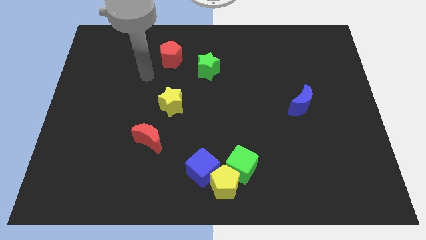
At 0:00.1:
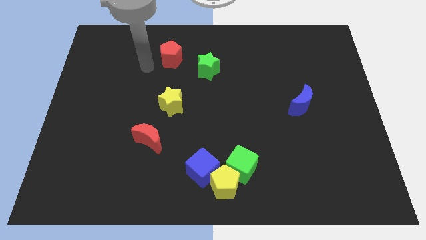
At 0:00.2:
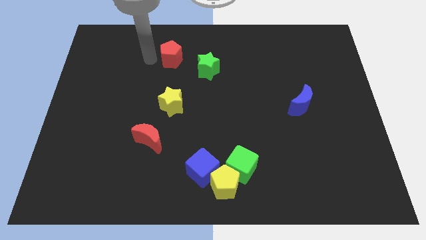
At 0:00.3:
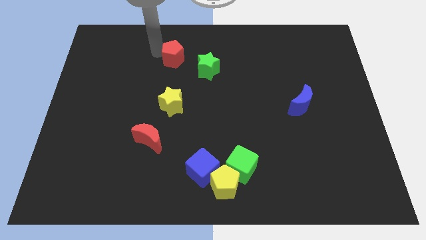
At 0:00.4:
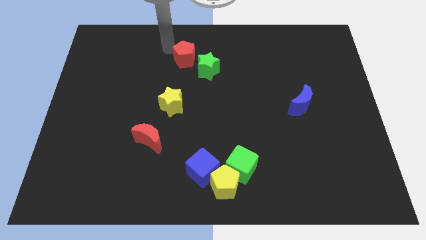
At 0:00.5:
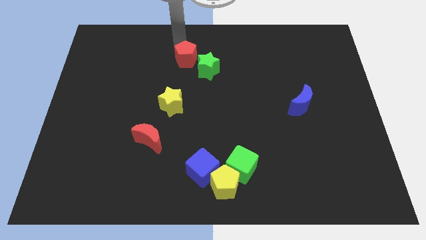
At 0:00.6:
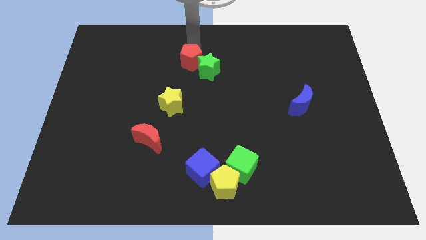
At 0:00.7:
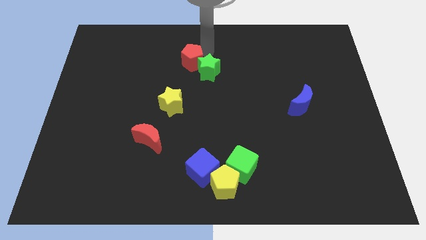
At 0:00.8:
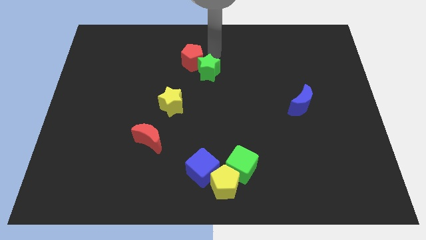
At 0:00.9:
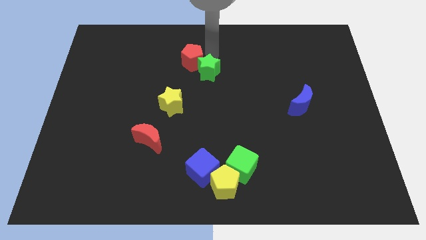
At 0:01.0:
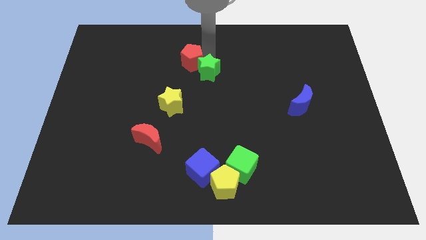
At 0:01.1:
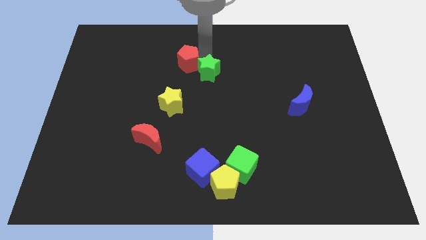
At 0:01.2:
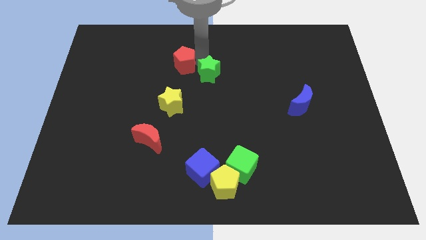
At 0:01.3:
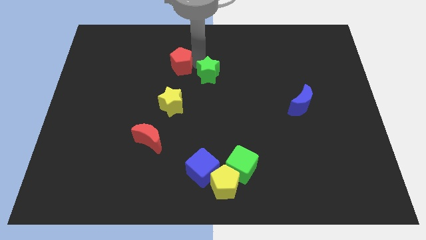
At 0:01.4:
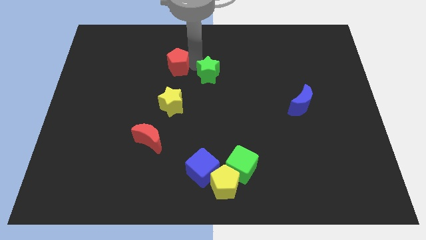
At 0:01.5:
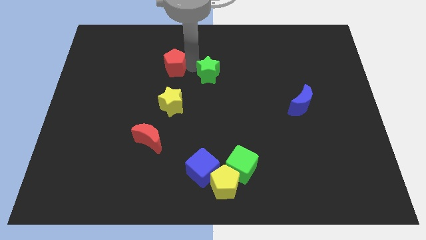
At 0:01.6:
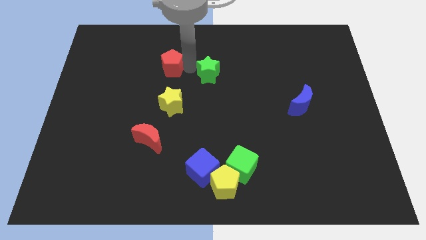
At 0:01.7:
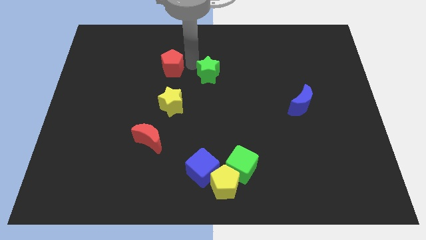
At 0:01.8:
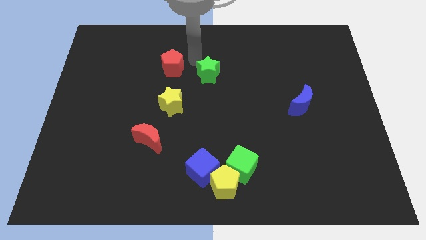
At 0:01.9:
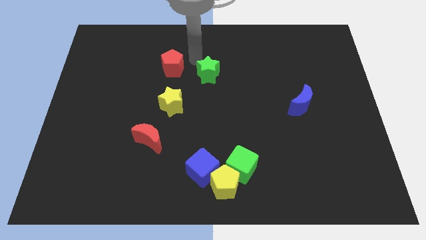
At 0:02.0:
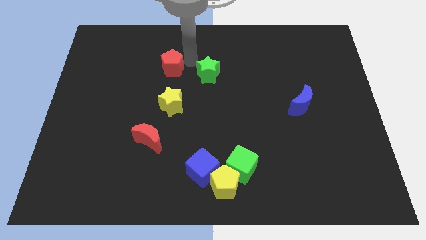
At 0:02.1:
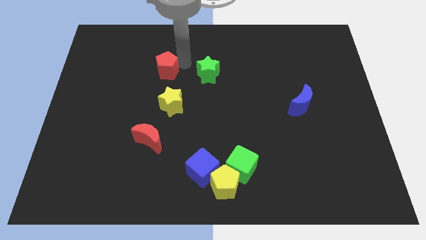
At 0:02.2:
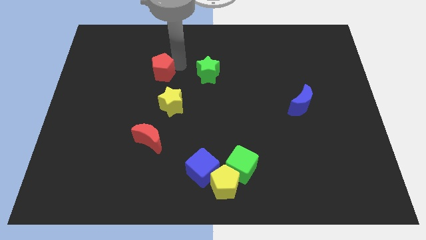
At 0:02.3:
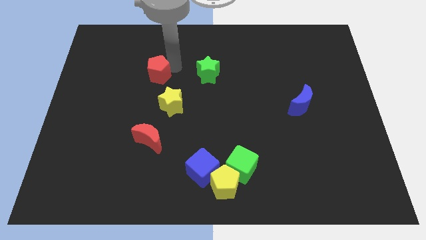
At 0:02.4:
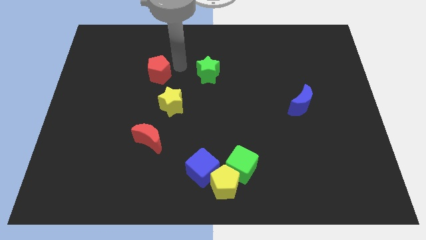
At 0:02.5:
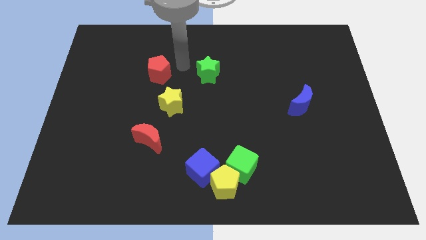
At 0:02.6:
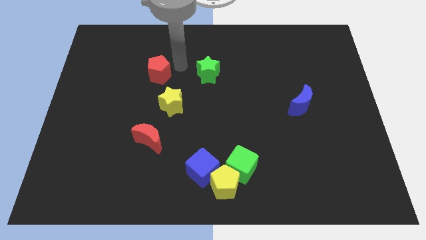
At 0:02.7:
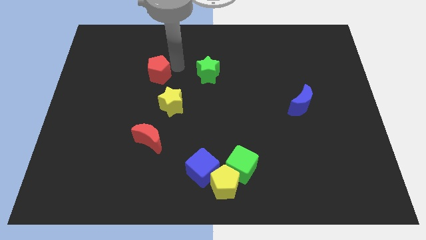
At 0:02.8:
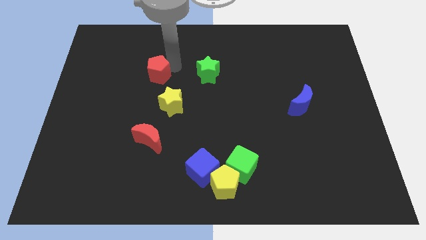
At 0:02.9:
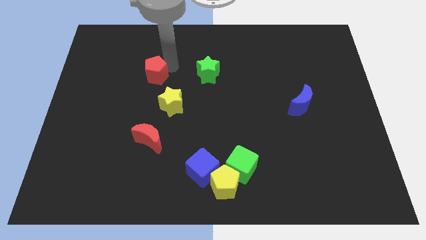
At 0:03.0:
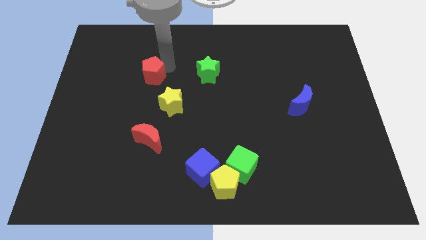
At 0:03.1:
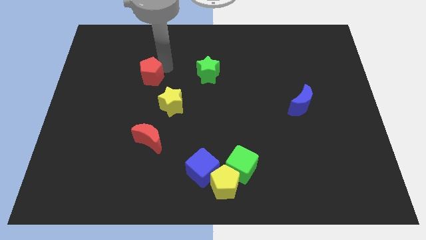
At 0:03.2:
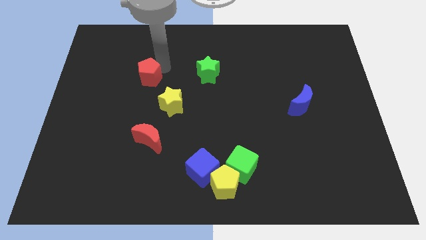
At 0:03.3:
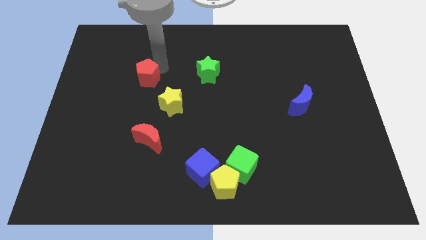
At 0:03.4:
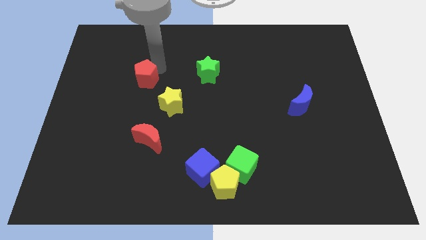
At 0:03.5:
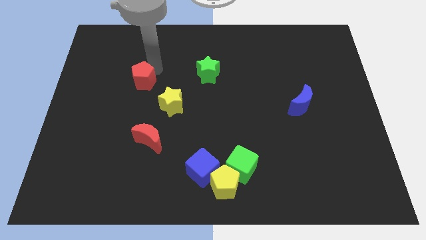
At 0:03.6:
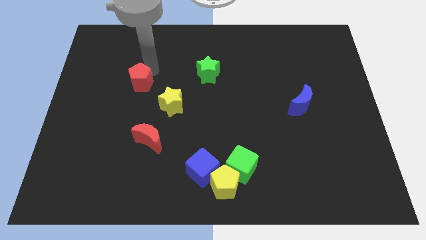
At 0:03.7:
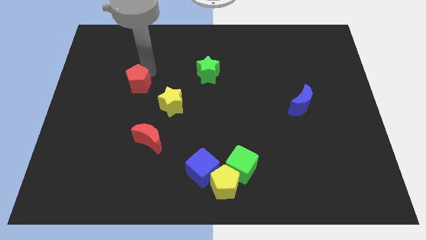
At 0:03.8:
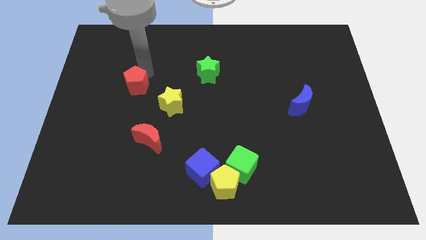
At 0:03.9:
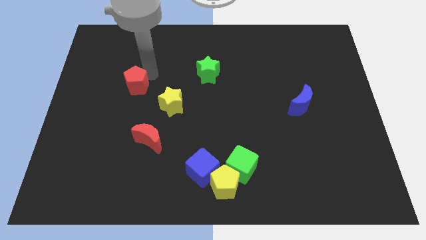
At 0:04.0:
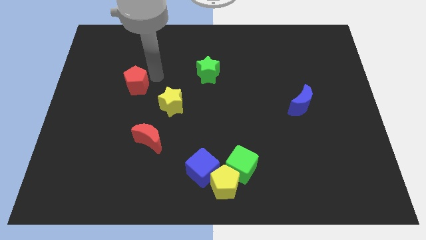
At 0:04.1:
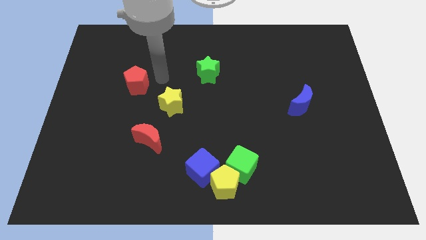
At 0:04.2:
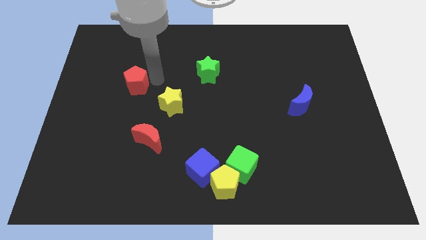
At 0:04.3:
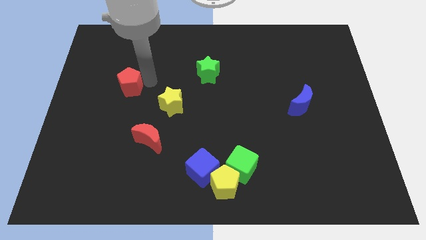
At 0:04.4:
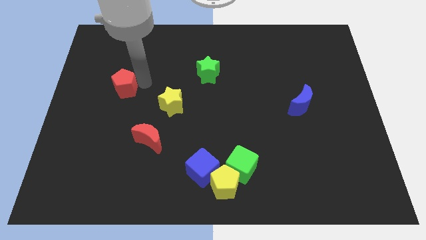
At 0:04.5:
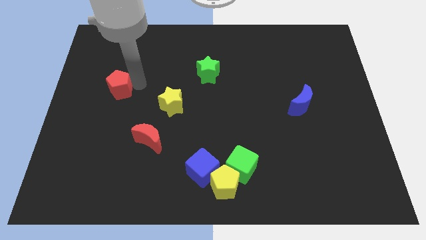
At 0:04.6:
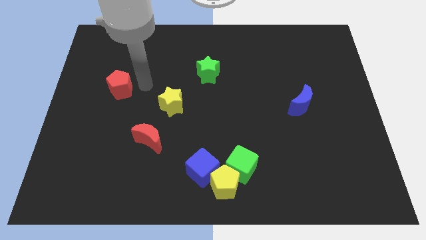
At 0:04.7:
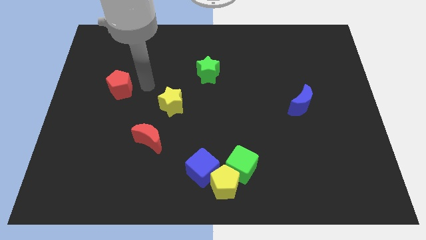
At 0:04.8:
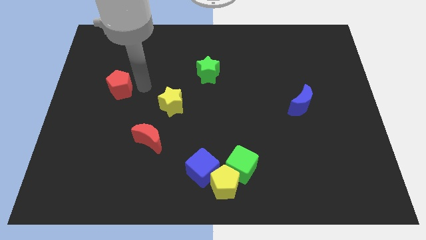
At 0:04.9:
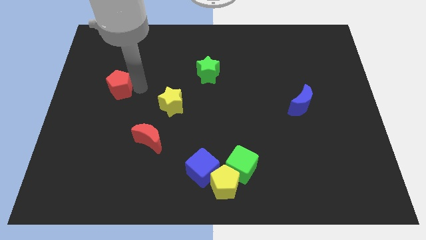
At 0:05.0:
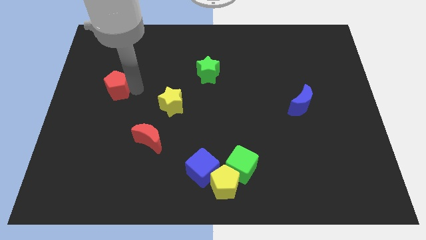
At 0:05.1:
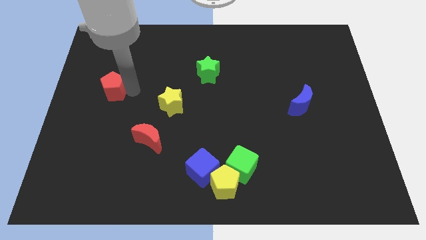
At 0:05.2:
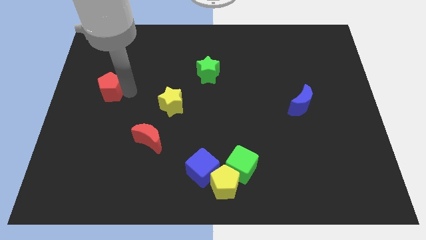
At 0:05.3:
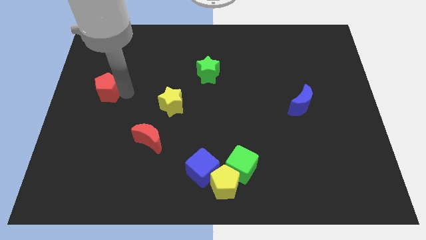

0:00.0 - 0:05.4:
put the red pentagon to the left side of the board

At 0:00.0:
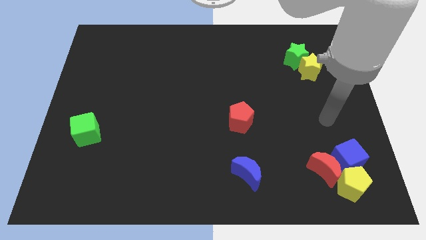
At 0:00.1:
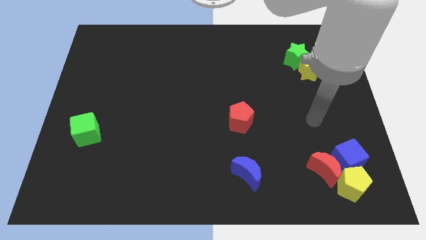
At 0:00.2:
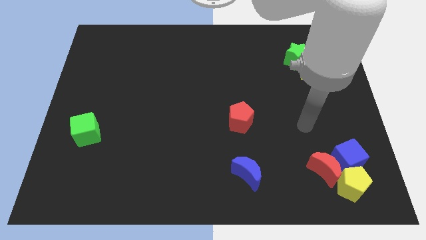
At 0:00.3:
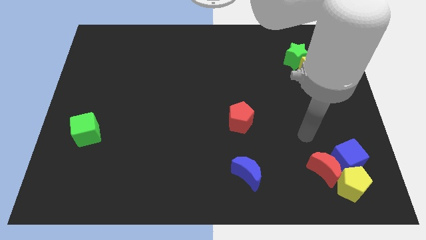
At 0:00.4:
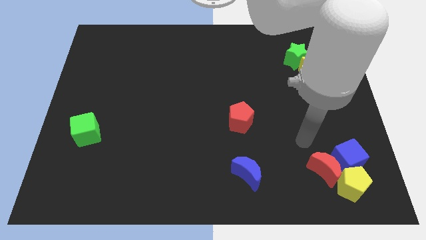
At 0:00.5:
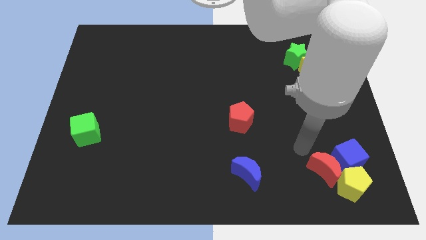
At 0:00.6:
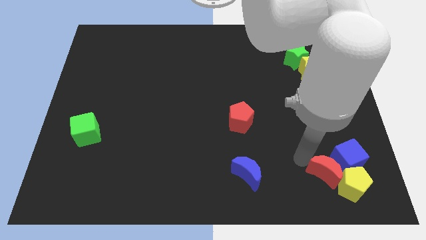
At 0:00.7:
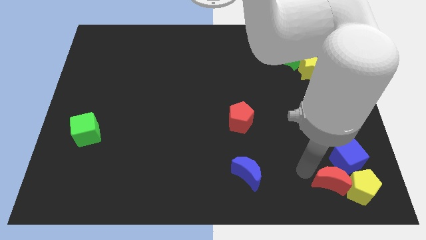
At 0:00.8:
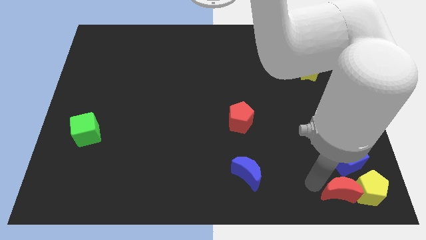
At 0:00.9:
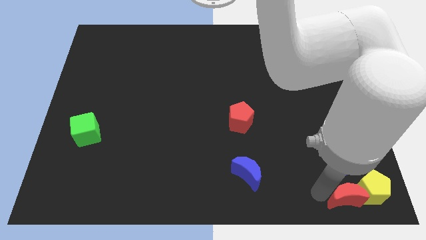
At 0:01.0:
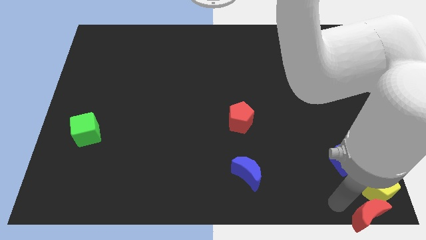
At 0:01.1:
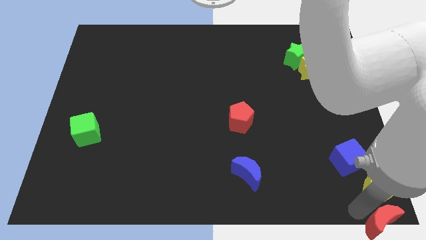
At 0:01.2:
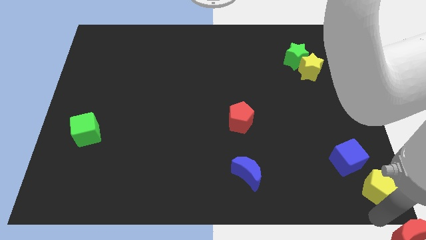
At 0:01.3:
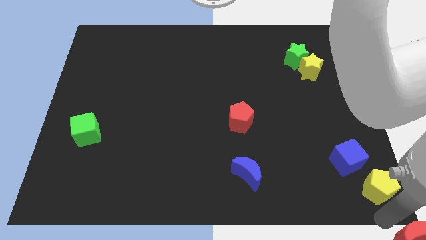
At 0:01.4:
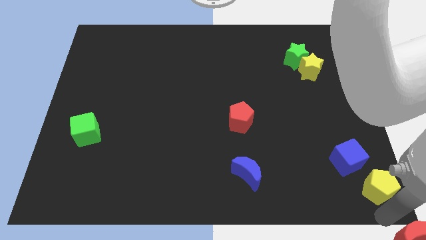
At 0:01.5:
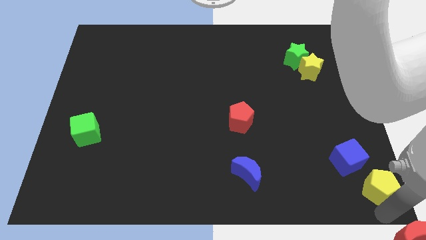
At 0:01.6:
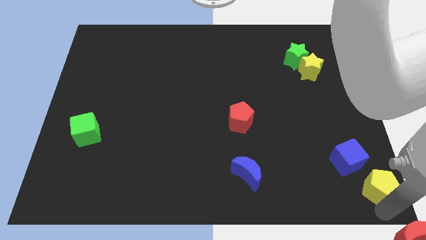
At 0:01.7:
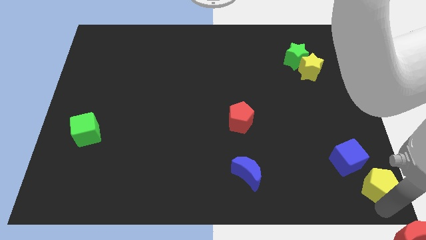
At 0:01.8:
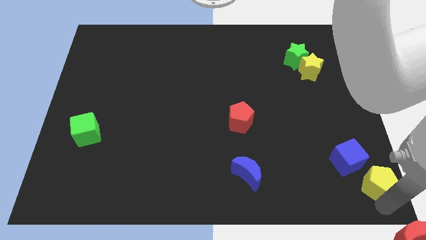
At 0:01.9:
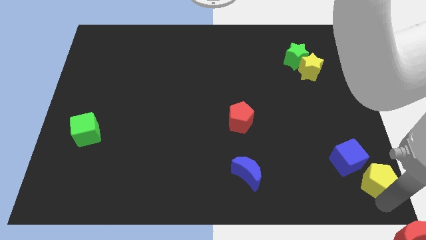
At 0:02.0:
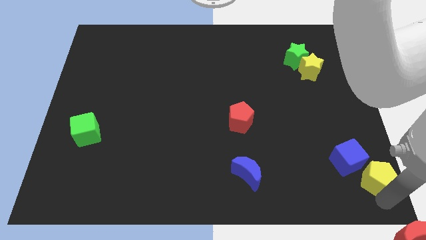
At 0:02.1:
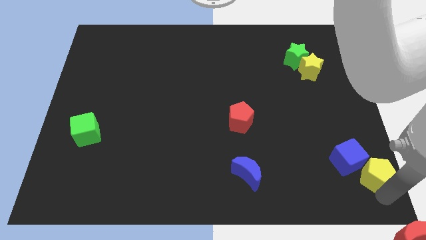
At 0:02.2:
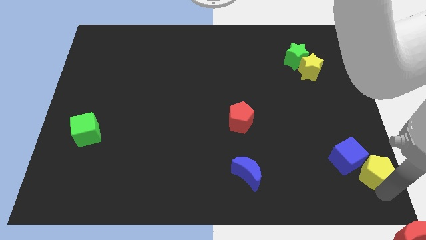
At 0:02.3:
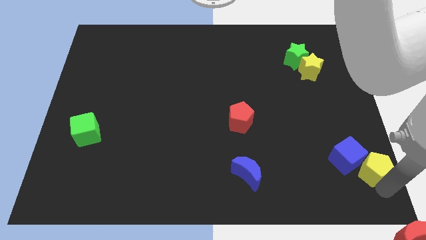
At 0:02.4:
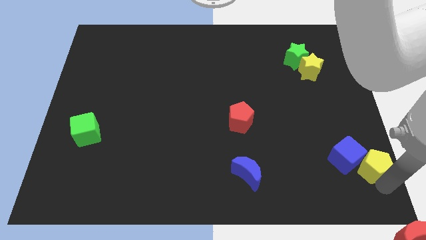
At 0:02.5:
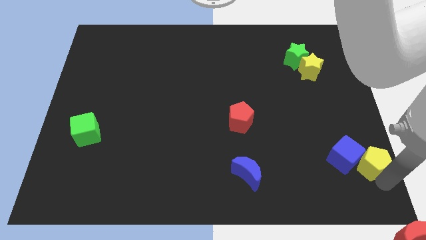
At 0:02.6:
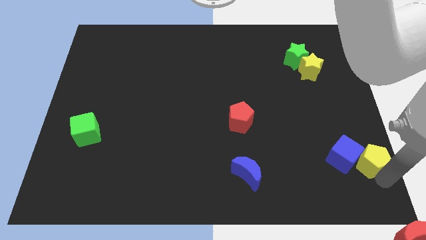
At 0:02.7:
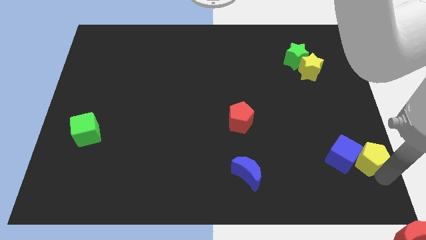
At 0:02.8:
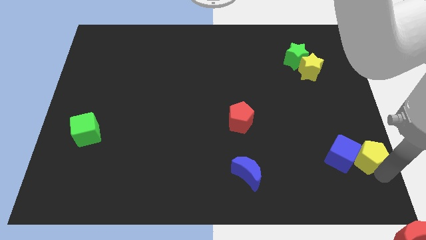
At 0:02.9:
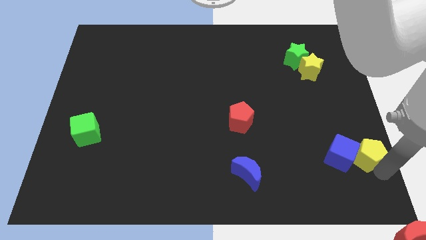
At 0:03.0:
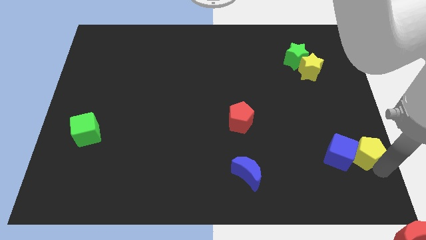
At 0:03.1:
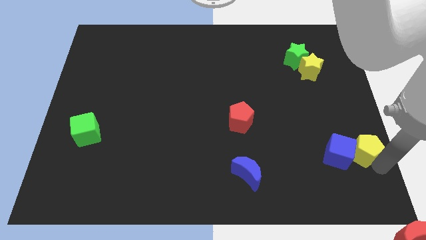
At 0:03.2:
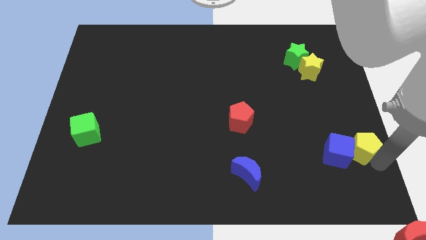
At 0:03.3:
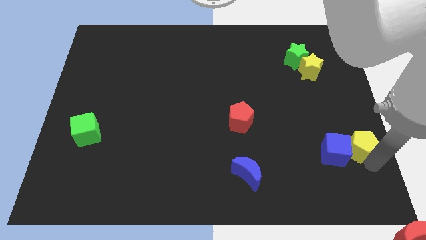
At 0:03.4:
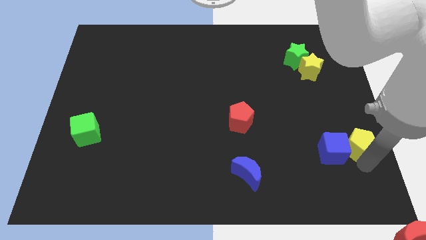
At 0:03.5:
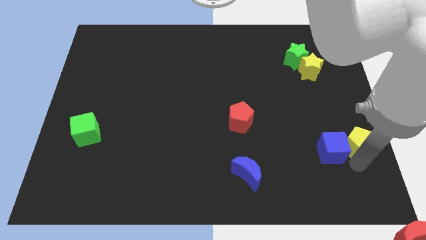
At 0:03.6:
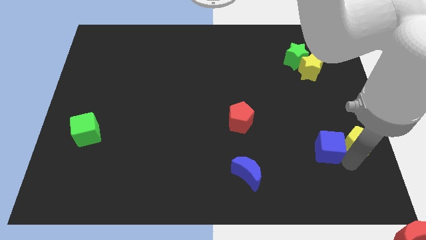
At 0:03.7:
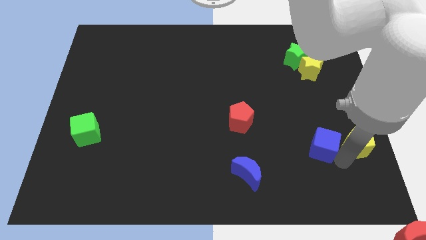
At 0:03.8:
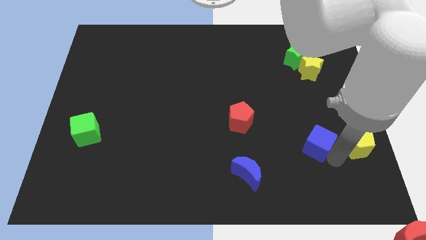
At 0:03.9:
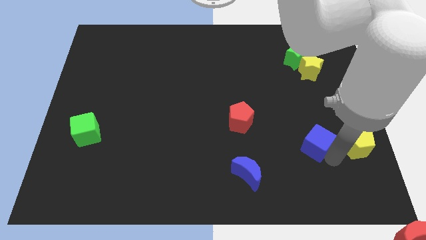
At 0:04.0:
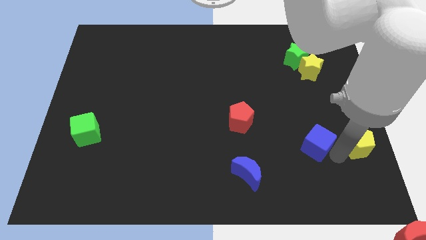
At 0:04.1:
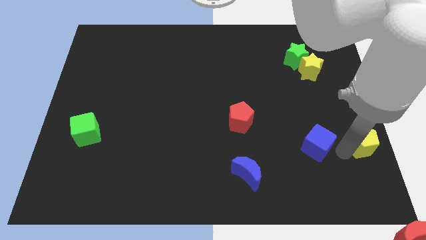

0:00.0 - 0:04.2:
move the yellow pentagon to the right side of the board
